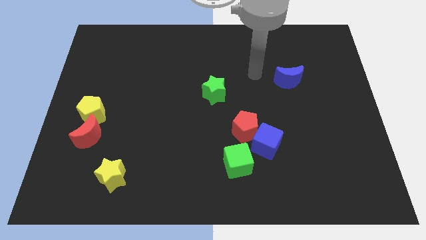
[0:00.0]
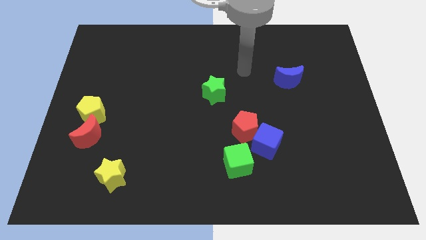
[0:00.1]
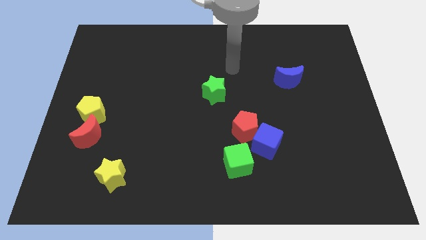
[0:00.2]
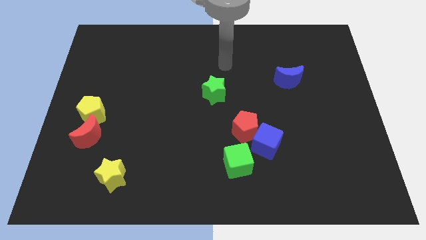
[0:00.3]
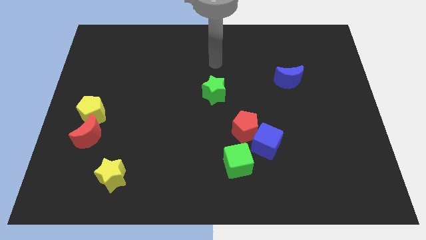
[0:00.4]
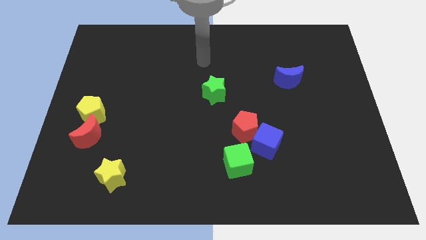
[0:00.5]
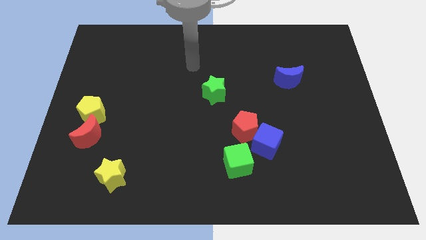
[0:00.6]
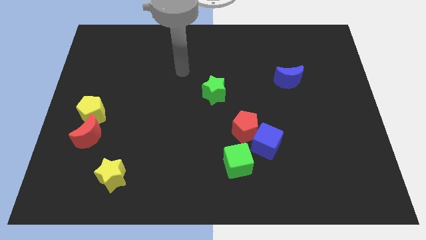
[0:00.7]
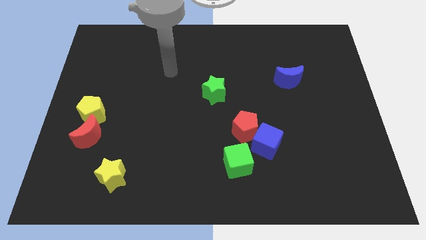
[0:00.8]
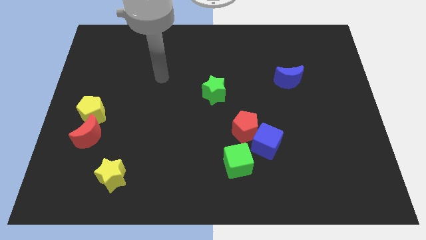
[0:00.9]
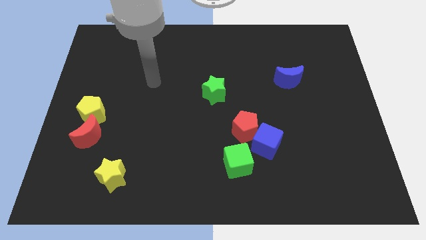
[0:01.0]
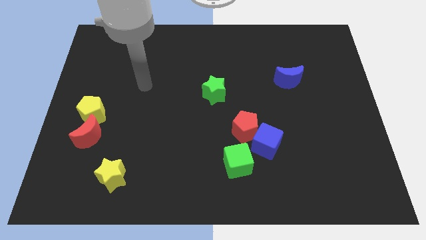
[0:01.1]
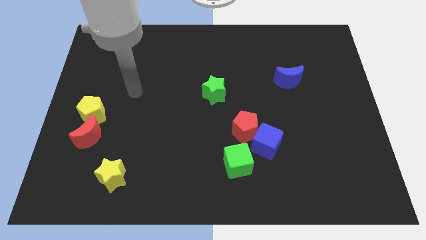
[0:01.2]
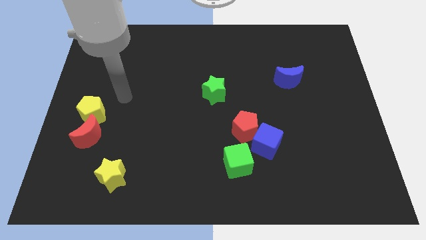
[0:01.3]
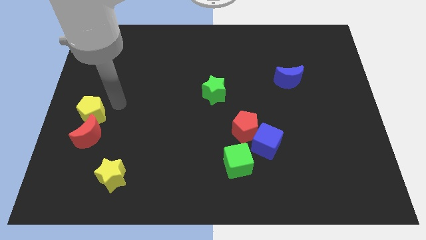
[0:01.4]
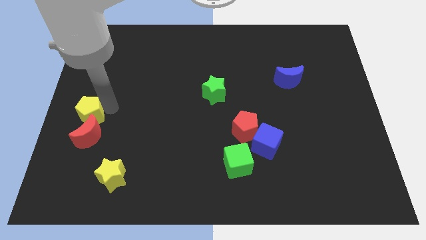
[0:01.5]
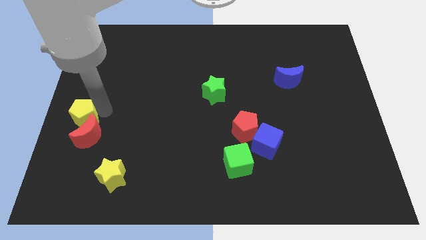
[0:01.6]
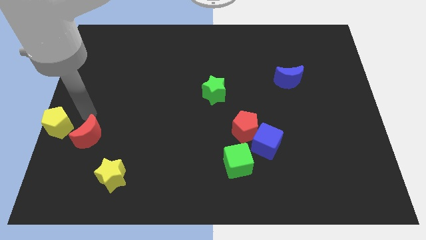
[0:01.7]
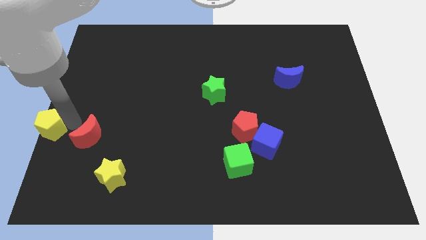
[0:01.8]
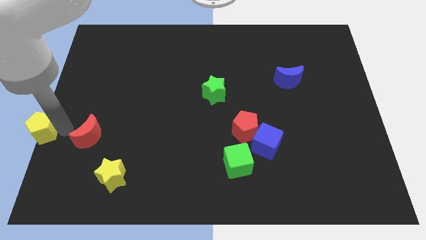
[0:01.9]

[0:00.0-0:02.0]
move the red moon away from the yellow pentagon

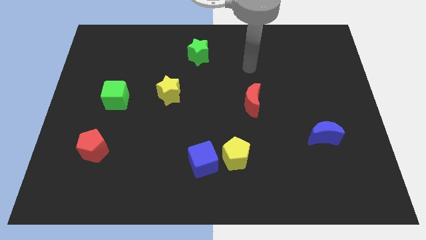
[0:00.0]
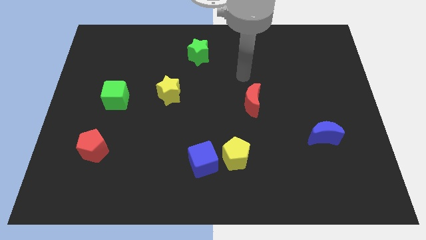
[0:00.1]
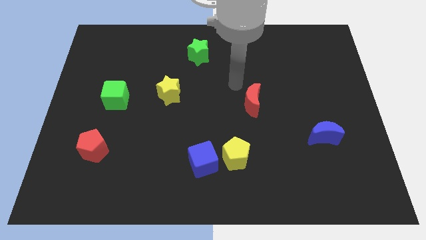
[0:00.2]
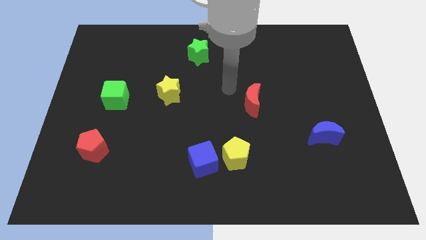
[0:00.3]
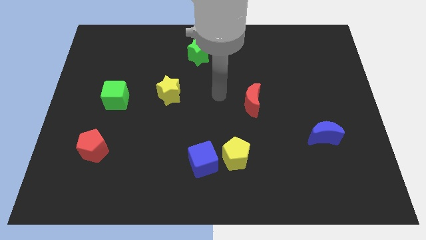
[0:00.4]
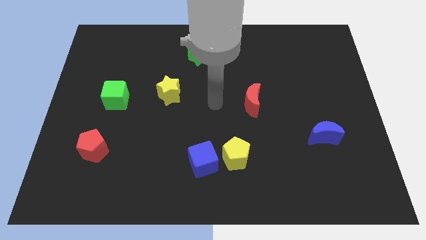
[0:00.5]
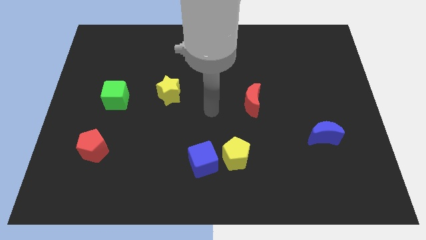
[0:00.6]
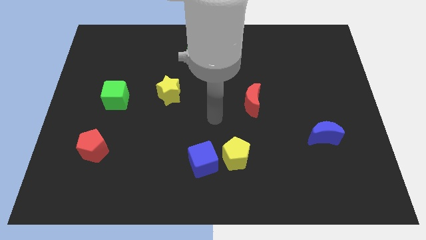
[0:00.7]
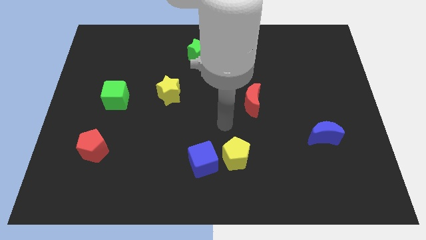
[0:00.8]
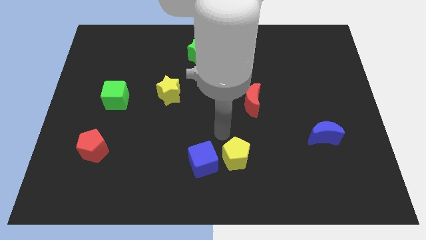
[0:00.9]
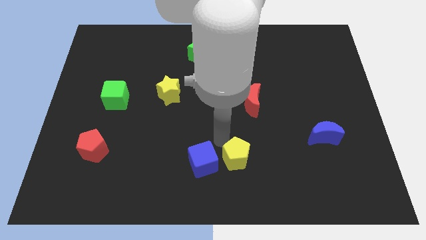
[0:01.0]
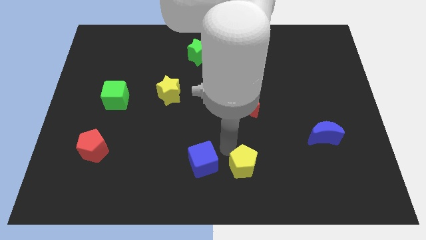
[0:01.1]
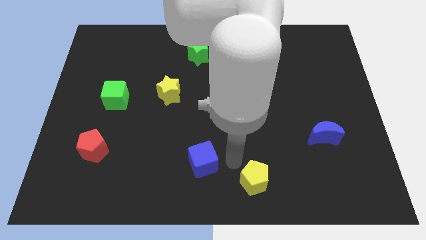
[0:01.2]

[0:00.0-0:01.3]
separate the blue cube from the yellow pentagon

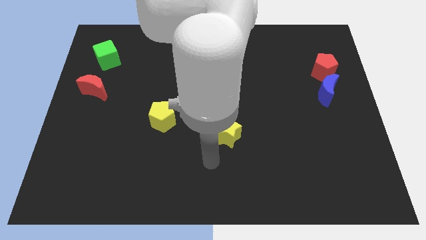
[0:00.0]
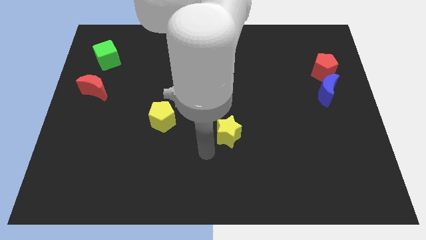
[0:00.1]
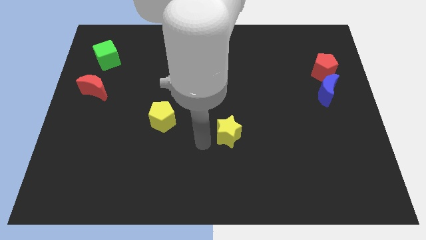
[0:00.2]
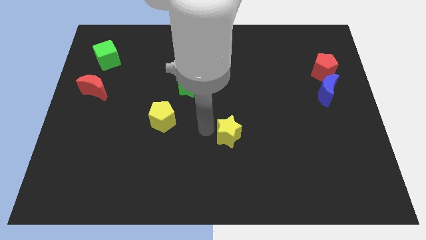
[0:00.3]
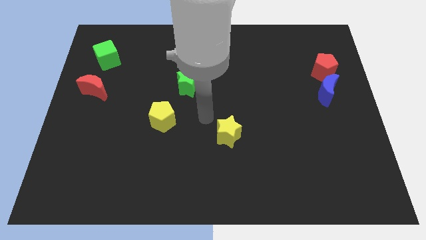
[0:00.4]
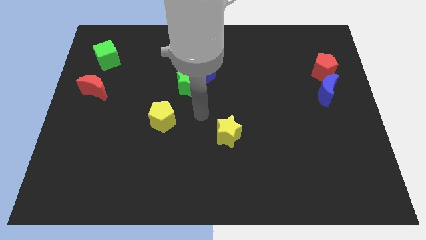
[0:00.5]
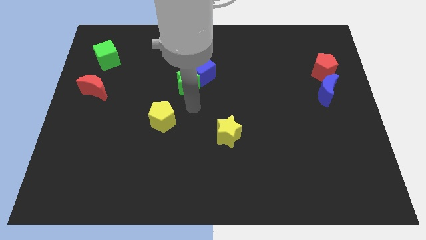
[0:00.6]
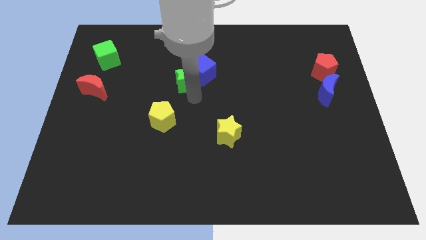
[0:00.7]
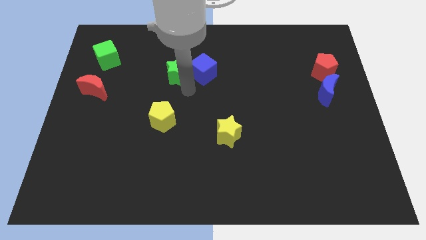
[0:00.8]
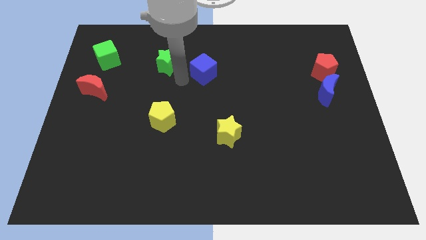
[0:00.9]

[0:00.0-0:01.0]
move the blue cube away from the green star

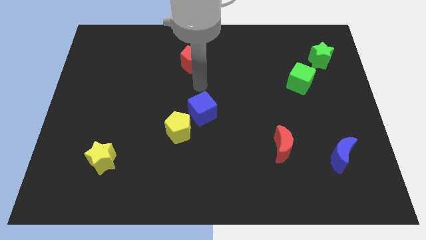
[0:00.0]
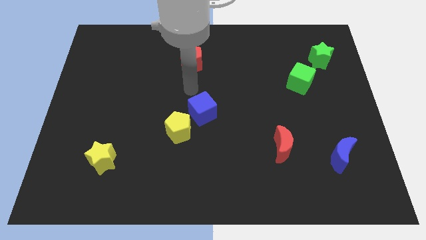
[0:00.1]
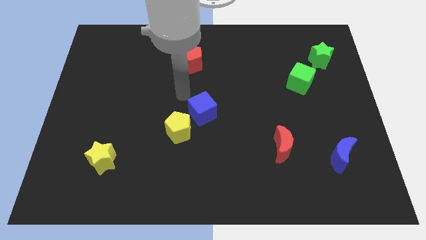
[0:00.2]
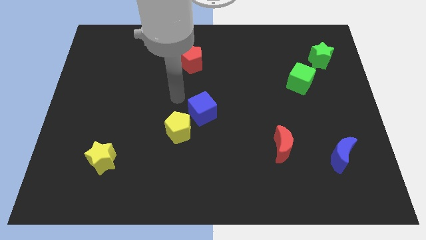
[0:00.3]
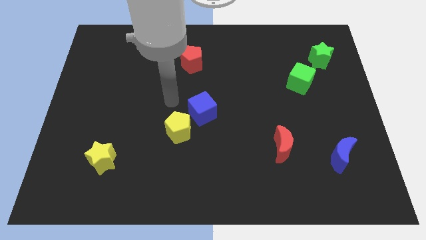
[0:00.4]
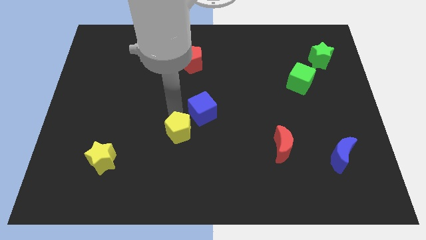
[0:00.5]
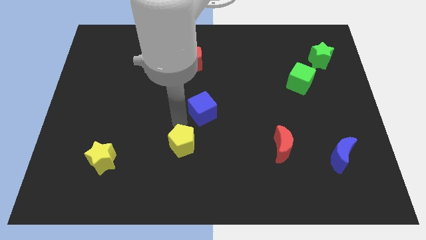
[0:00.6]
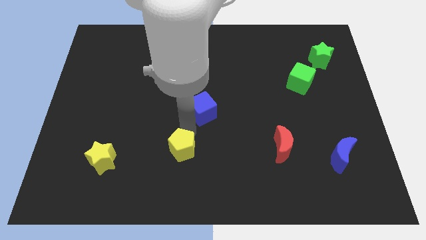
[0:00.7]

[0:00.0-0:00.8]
move the blue cube away from the yellow pentagon

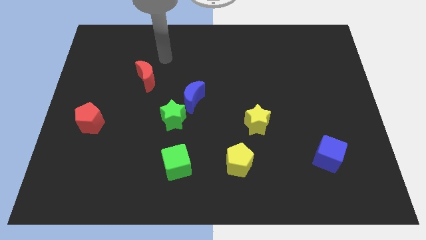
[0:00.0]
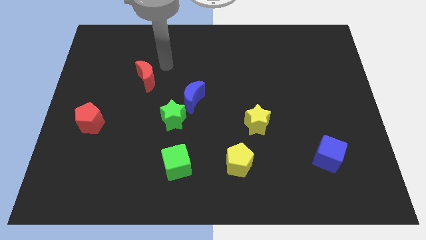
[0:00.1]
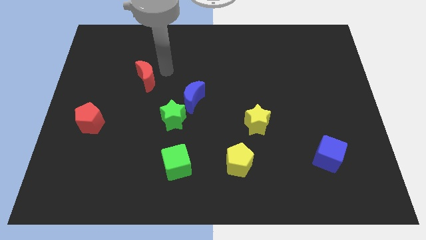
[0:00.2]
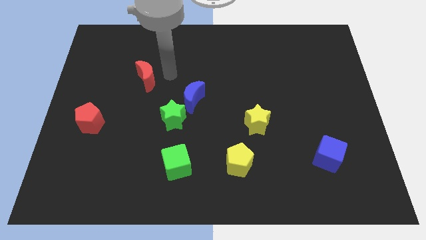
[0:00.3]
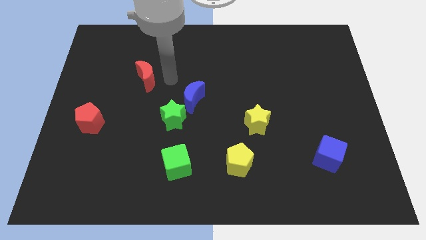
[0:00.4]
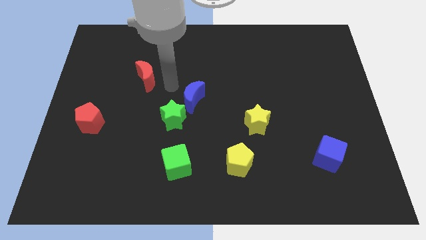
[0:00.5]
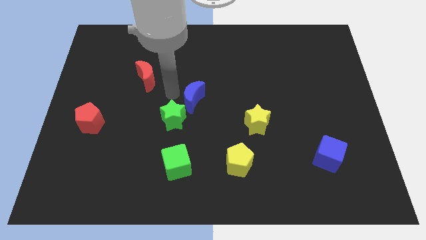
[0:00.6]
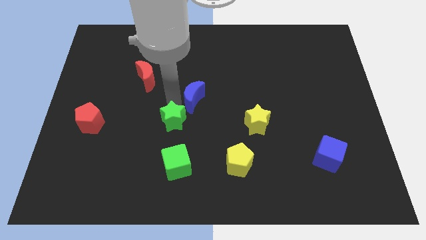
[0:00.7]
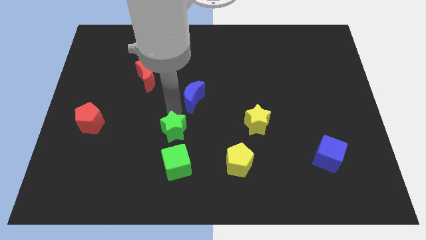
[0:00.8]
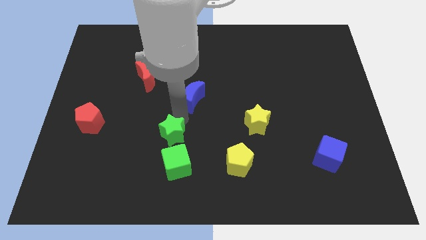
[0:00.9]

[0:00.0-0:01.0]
move the blue moon away from the green star

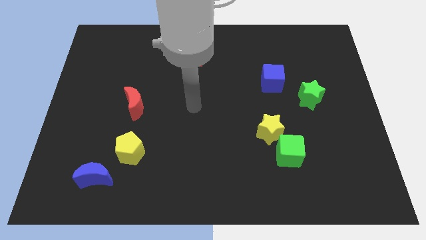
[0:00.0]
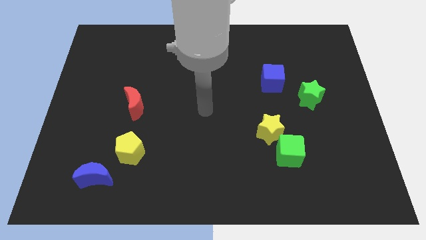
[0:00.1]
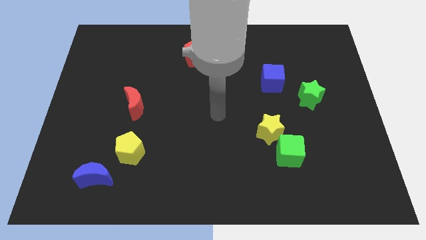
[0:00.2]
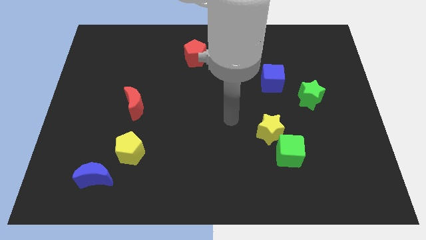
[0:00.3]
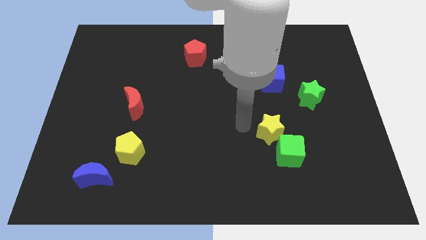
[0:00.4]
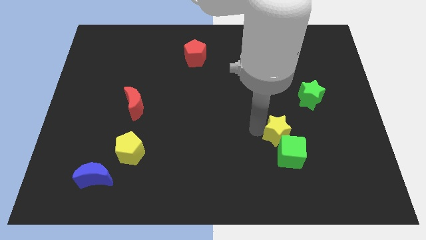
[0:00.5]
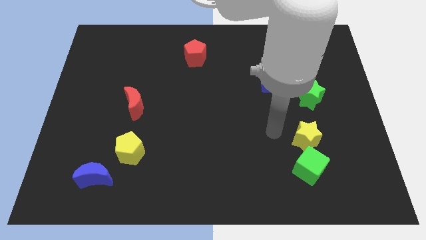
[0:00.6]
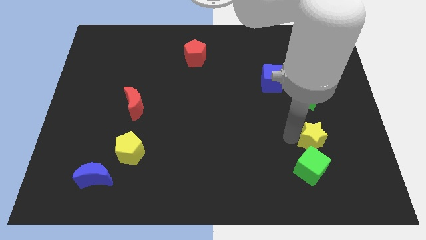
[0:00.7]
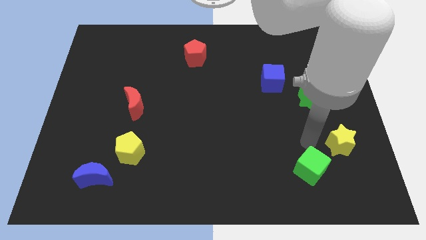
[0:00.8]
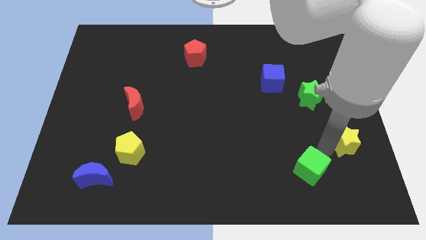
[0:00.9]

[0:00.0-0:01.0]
pull the green cube apart from the yellow star

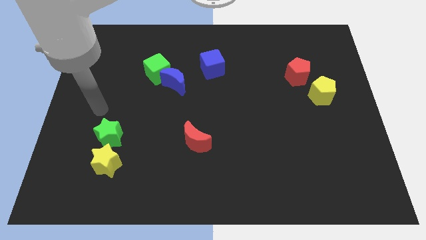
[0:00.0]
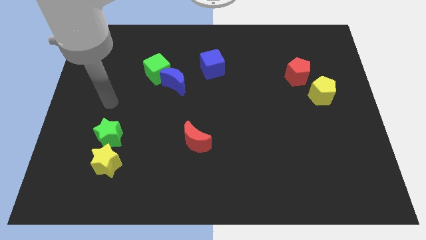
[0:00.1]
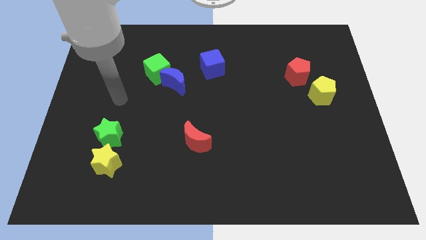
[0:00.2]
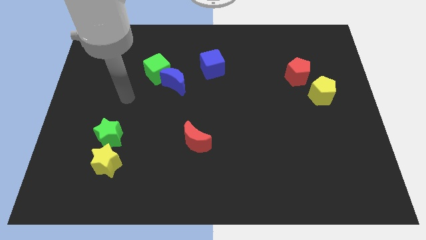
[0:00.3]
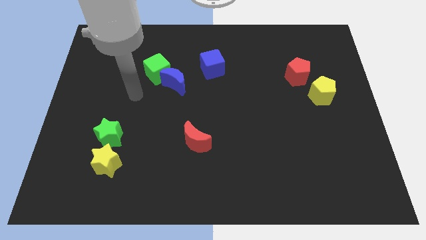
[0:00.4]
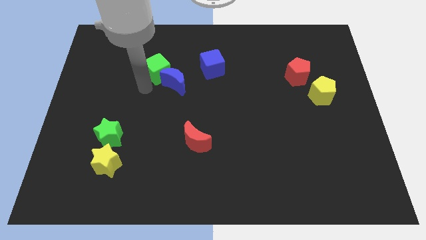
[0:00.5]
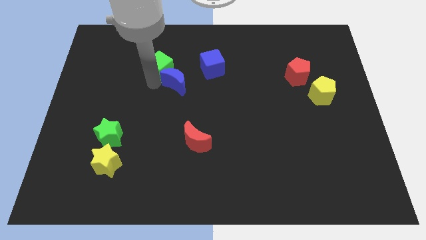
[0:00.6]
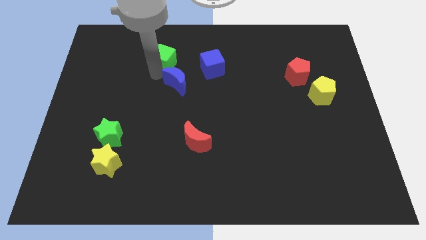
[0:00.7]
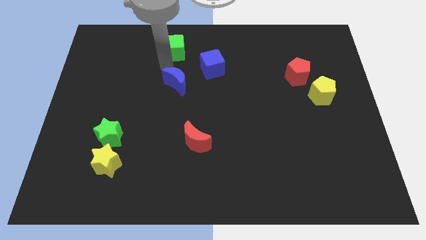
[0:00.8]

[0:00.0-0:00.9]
move the blue moon away from the green cube

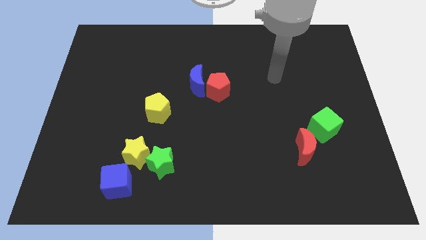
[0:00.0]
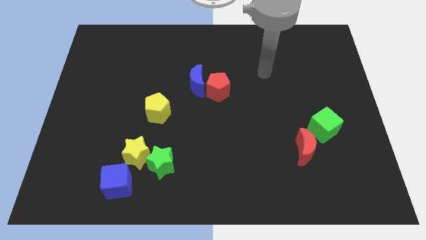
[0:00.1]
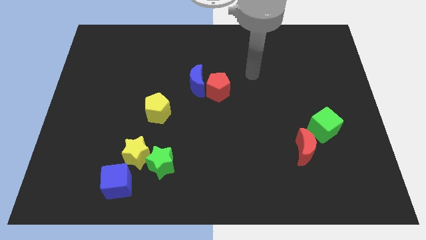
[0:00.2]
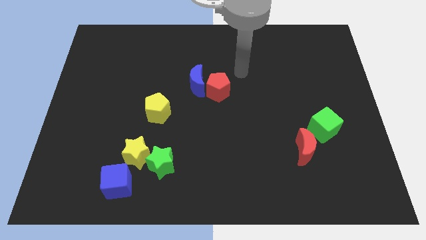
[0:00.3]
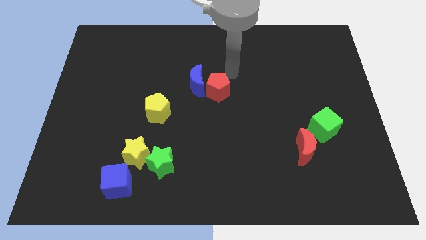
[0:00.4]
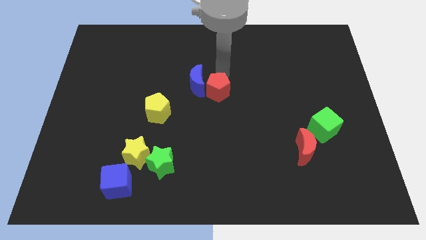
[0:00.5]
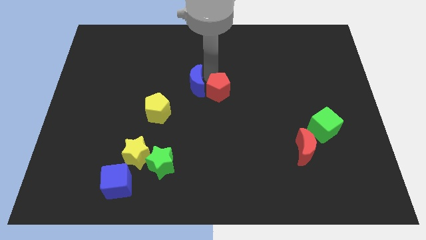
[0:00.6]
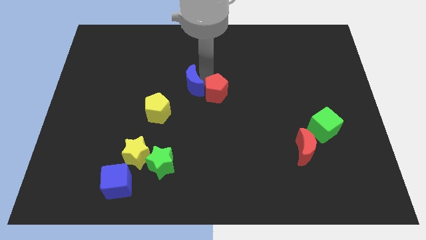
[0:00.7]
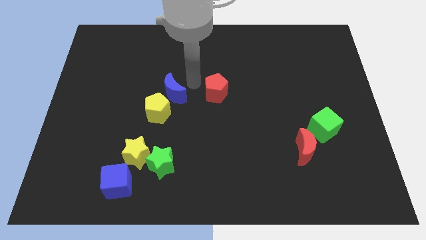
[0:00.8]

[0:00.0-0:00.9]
move the red pentagon away from the blue moon

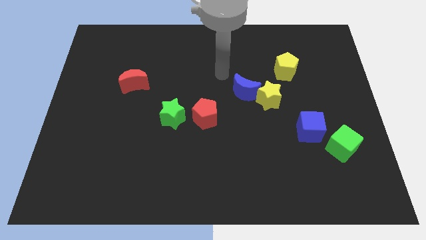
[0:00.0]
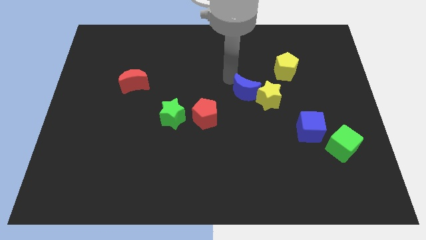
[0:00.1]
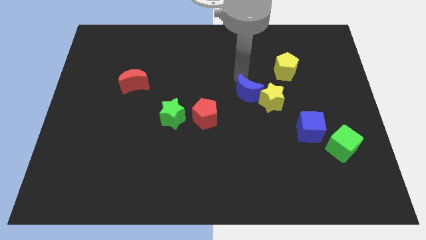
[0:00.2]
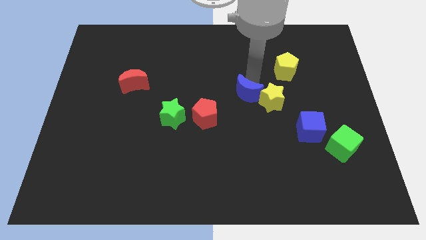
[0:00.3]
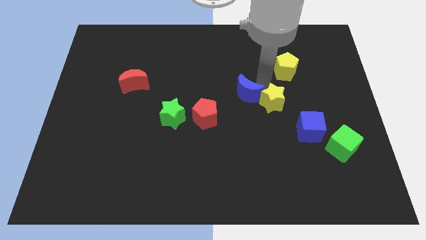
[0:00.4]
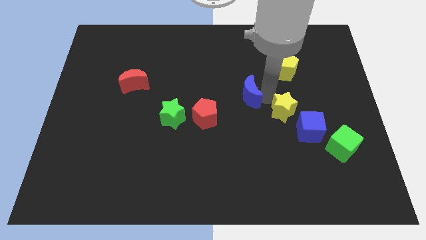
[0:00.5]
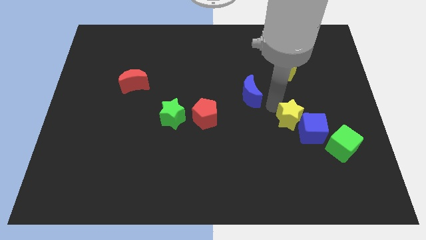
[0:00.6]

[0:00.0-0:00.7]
pull the blue moon apart from the yellow star
